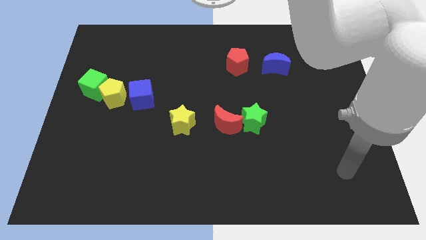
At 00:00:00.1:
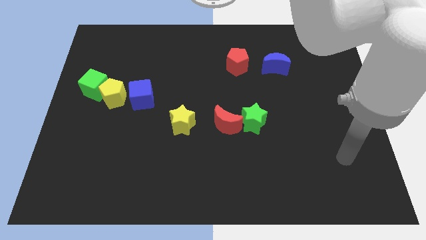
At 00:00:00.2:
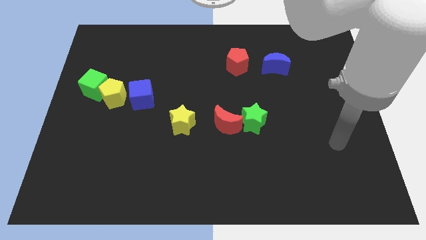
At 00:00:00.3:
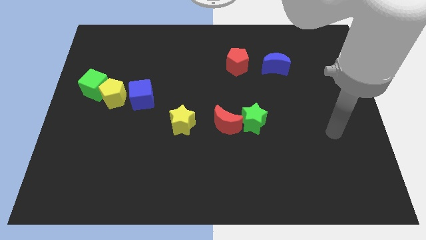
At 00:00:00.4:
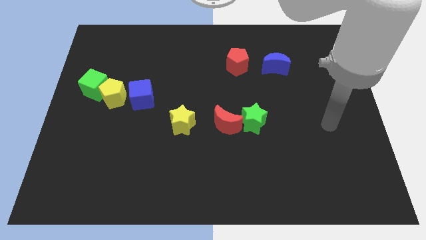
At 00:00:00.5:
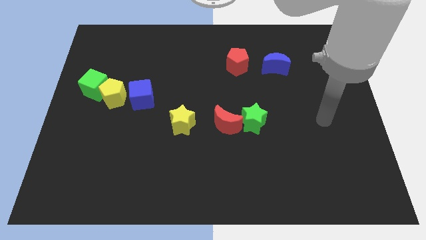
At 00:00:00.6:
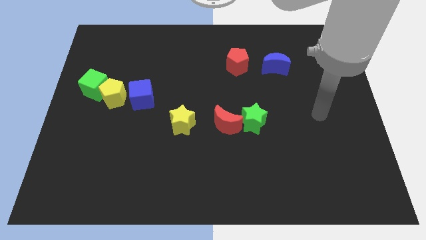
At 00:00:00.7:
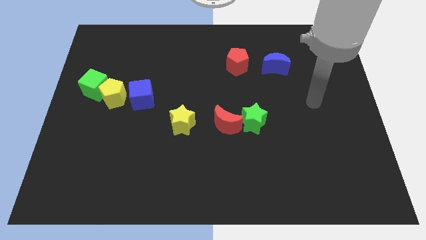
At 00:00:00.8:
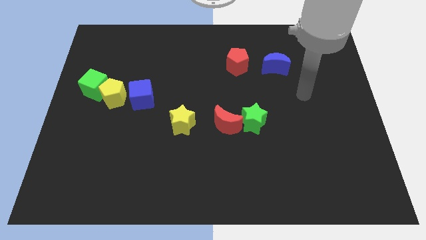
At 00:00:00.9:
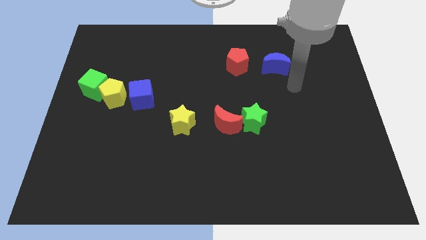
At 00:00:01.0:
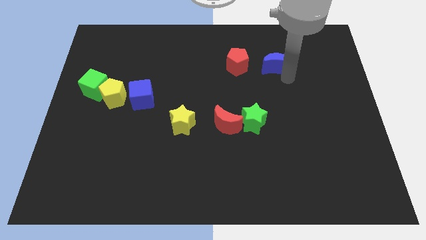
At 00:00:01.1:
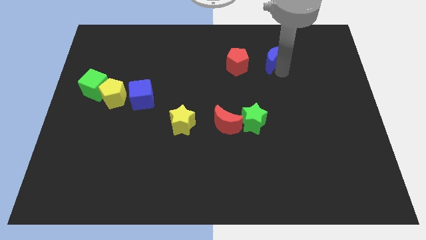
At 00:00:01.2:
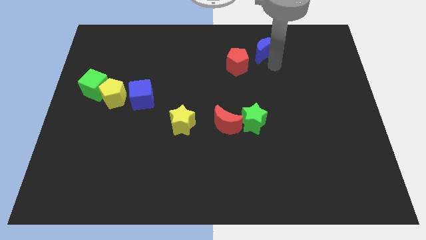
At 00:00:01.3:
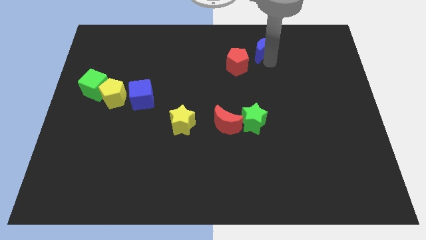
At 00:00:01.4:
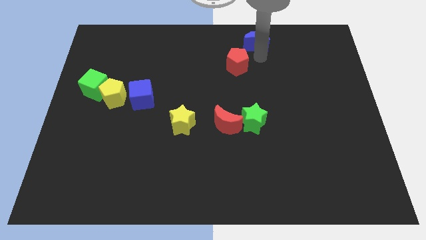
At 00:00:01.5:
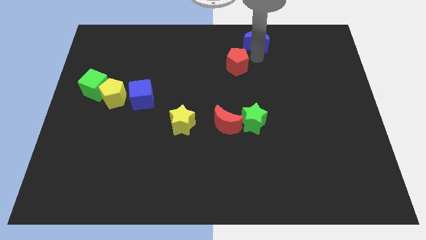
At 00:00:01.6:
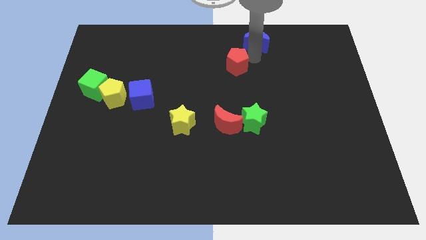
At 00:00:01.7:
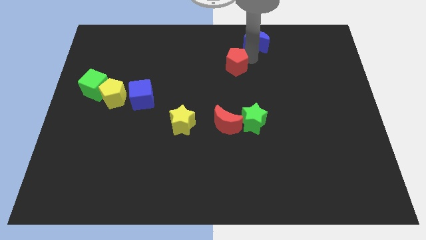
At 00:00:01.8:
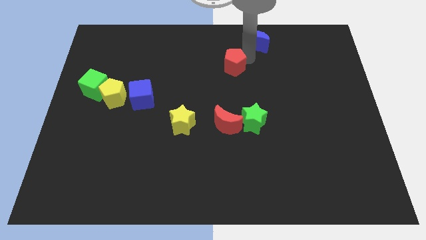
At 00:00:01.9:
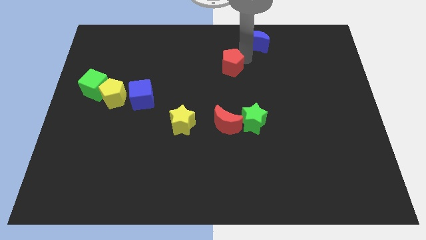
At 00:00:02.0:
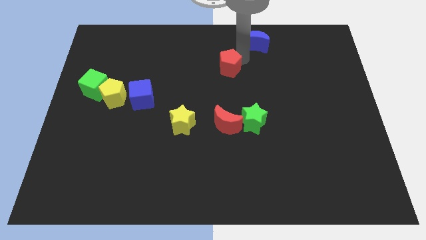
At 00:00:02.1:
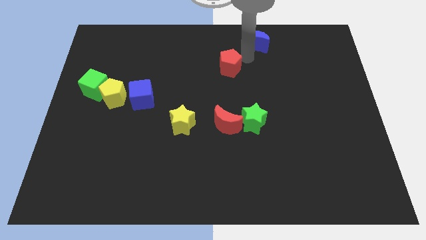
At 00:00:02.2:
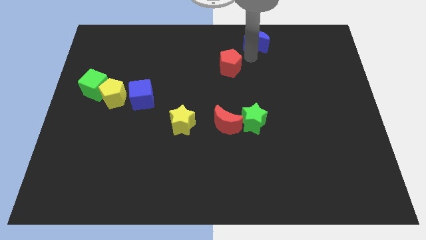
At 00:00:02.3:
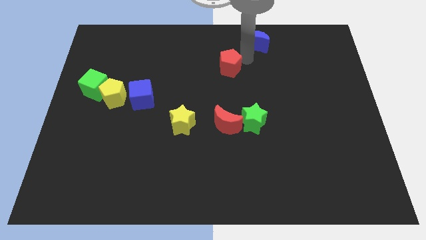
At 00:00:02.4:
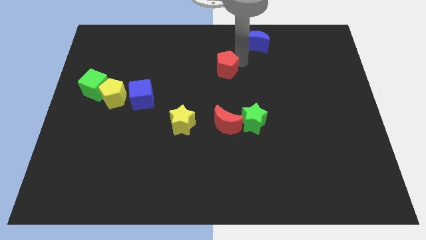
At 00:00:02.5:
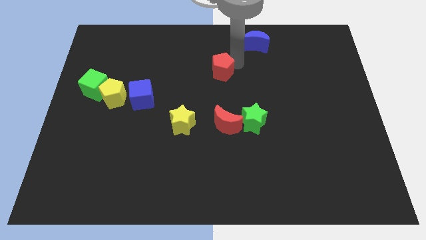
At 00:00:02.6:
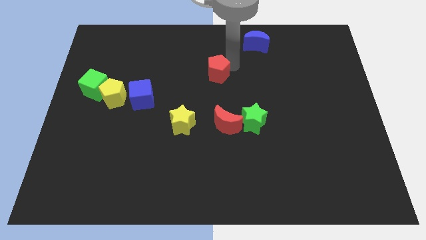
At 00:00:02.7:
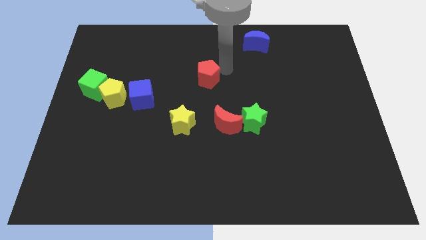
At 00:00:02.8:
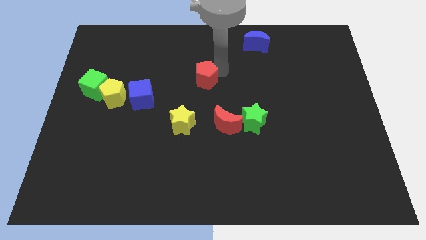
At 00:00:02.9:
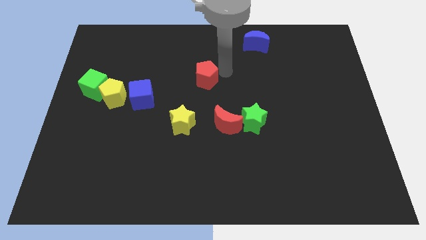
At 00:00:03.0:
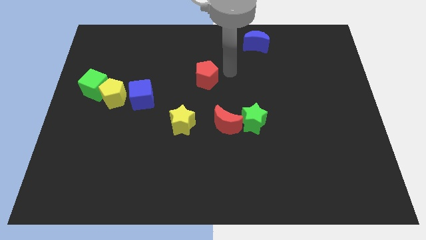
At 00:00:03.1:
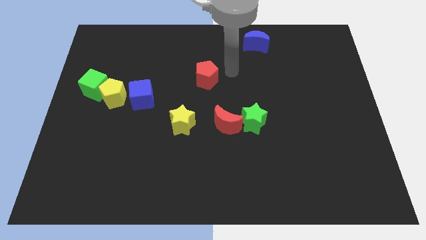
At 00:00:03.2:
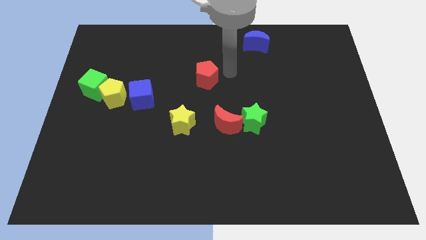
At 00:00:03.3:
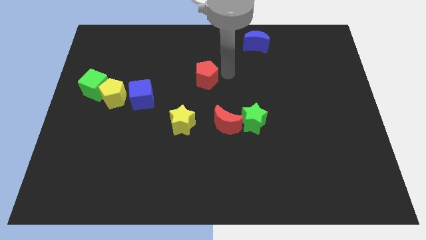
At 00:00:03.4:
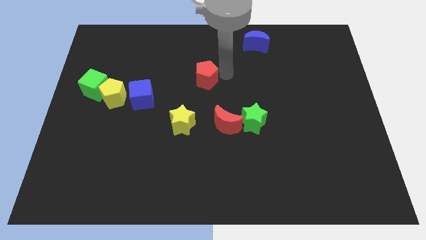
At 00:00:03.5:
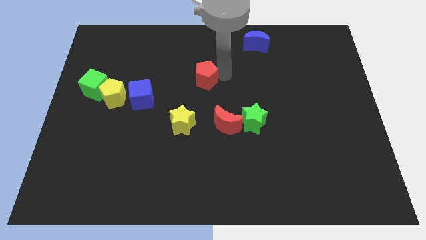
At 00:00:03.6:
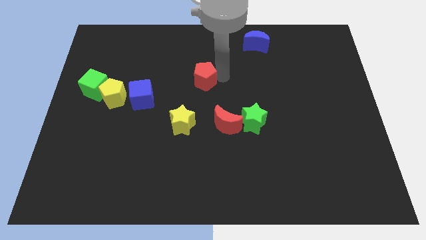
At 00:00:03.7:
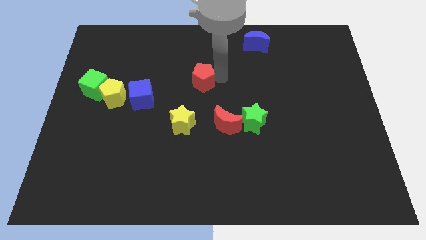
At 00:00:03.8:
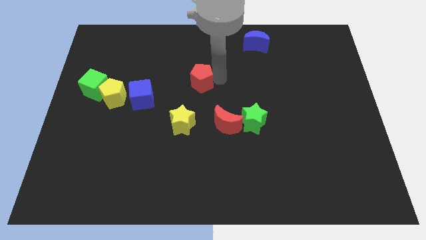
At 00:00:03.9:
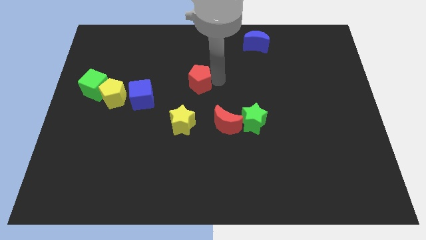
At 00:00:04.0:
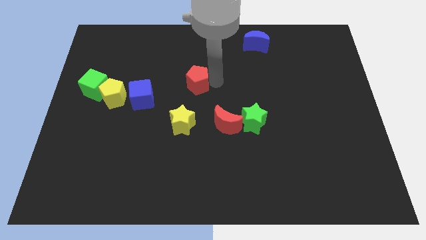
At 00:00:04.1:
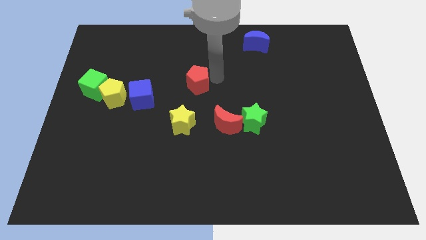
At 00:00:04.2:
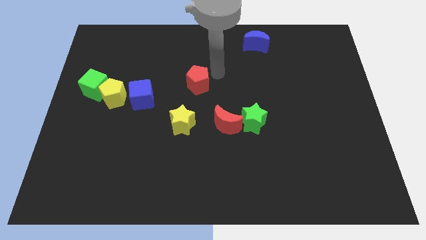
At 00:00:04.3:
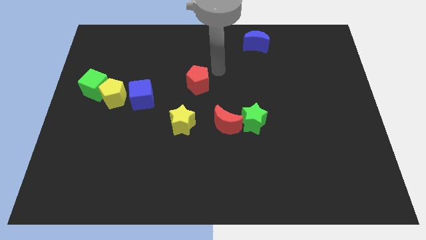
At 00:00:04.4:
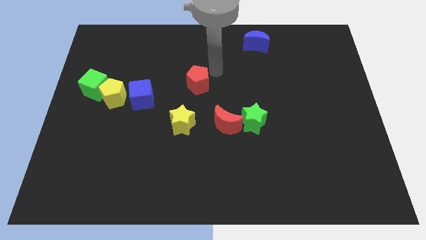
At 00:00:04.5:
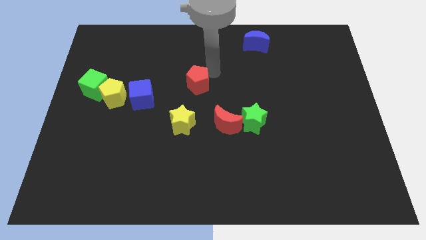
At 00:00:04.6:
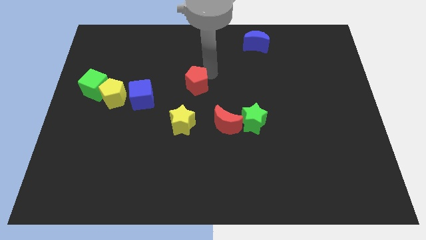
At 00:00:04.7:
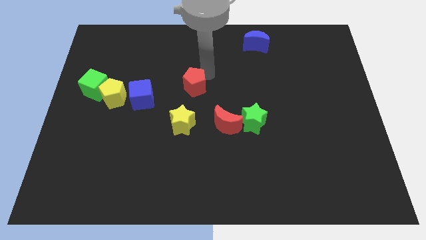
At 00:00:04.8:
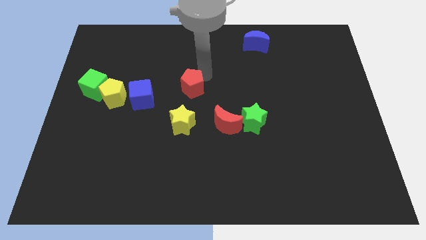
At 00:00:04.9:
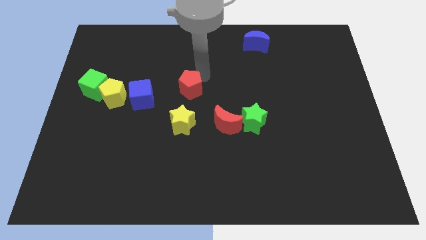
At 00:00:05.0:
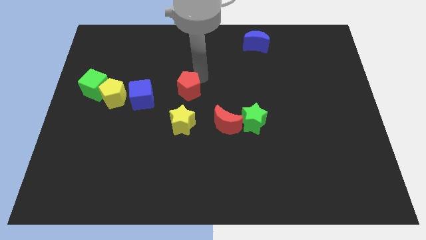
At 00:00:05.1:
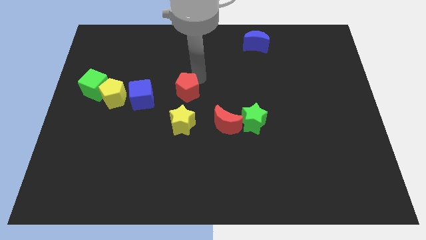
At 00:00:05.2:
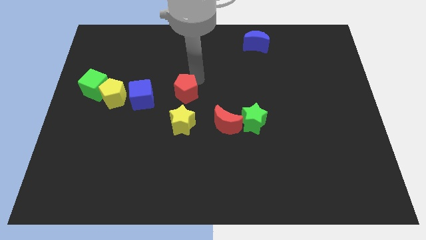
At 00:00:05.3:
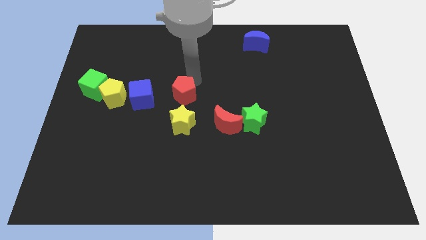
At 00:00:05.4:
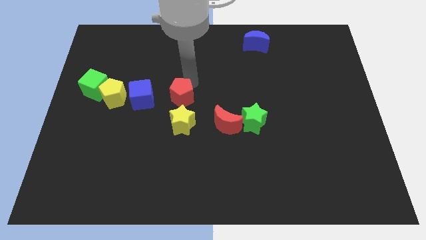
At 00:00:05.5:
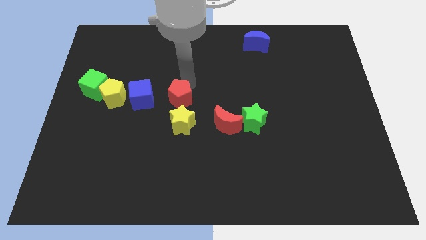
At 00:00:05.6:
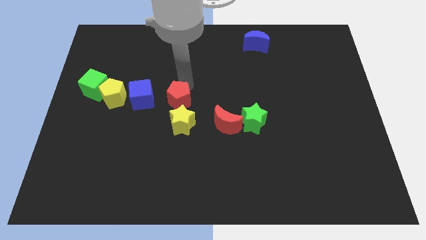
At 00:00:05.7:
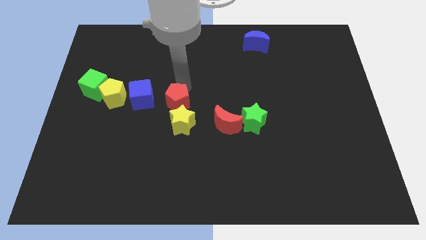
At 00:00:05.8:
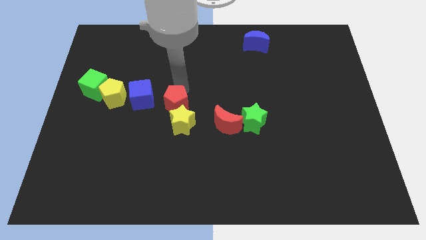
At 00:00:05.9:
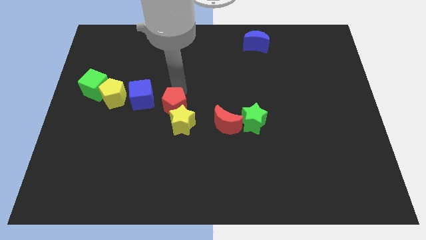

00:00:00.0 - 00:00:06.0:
slide the red pentagon diagonally downwards and to the left

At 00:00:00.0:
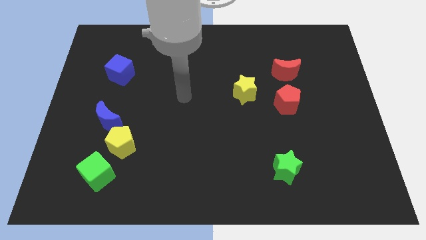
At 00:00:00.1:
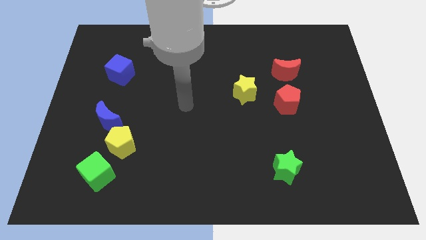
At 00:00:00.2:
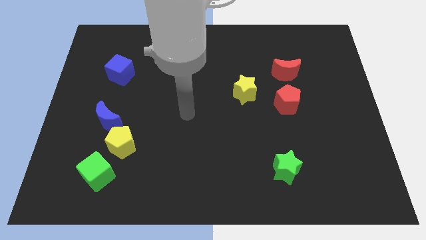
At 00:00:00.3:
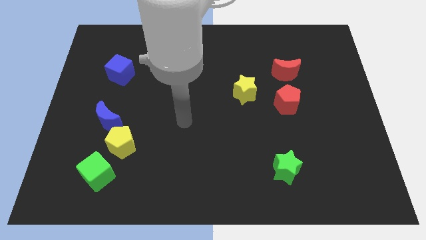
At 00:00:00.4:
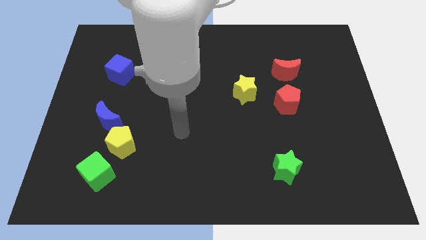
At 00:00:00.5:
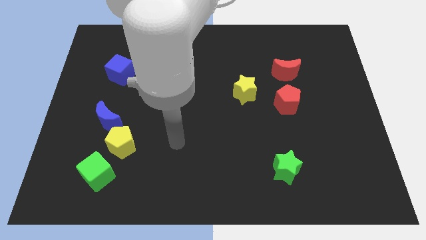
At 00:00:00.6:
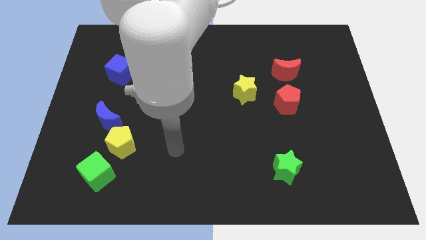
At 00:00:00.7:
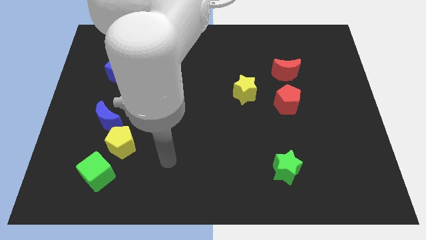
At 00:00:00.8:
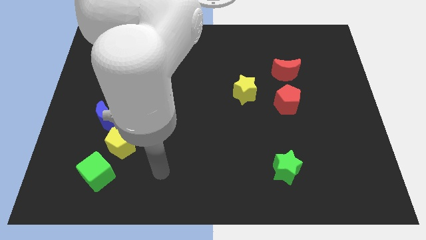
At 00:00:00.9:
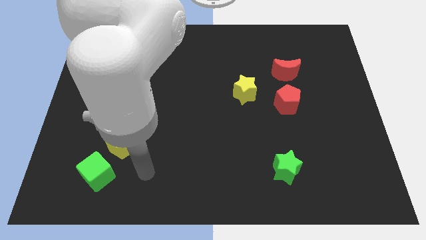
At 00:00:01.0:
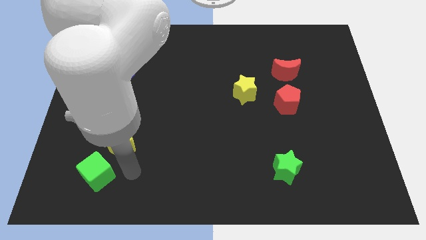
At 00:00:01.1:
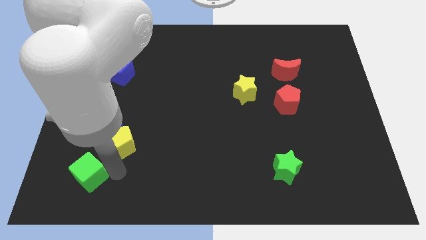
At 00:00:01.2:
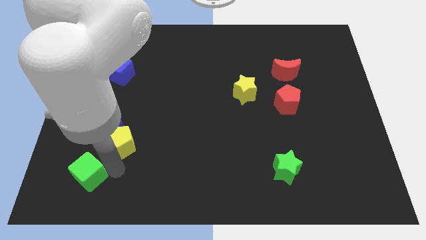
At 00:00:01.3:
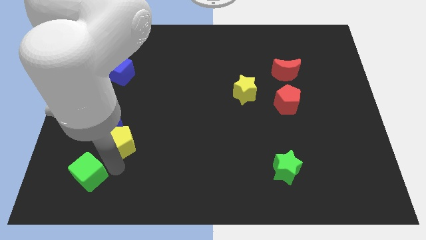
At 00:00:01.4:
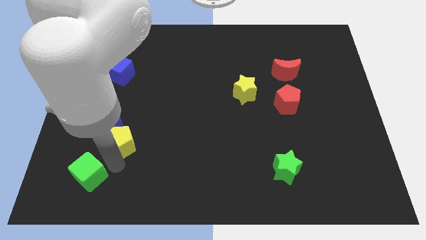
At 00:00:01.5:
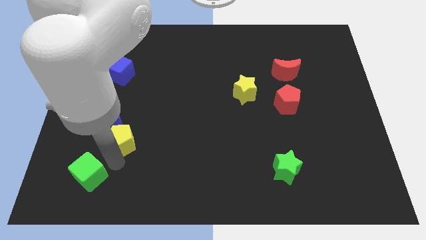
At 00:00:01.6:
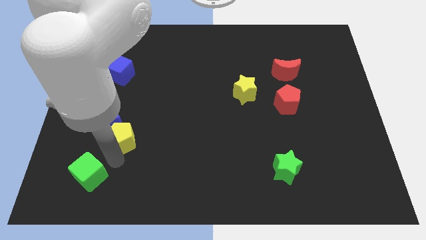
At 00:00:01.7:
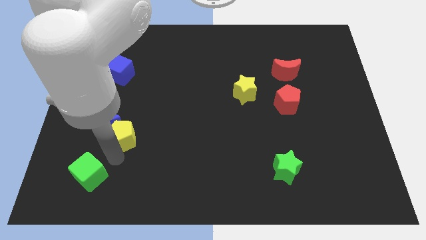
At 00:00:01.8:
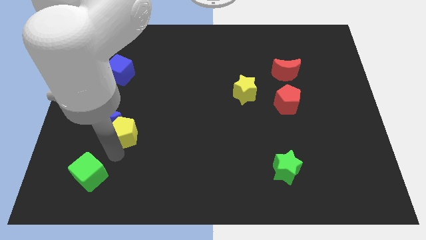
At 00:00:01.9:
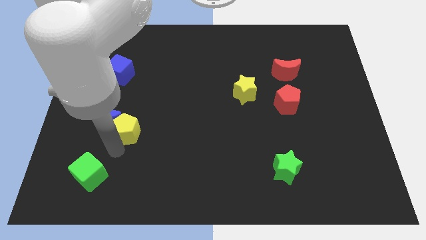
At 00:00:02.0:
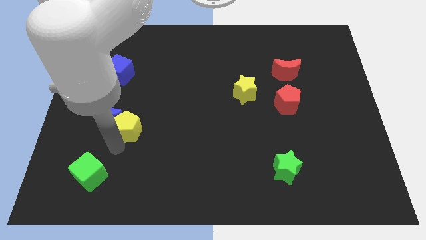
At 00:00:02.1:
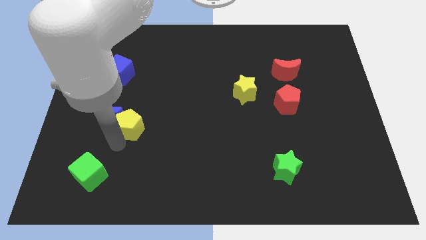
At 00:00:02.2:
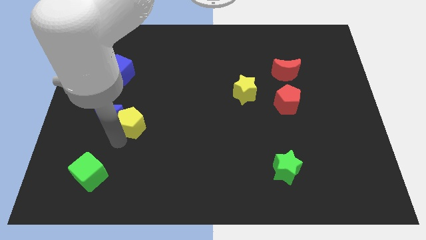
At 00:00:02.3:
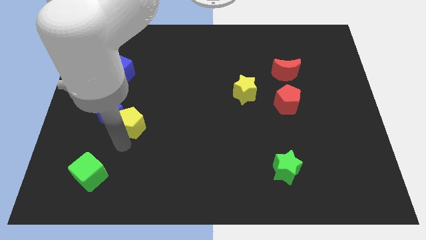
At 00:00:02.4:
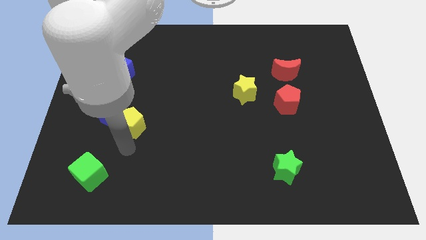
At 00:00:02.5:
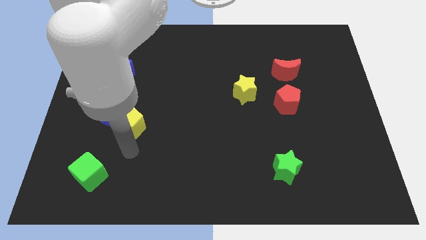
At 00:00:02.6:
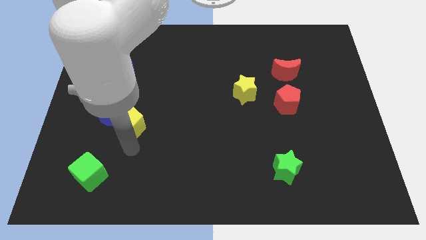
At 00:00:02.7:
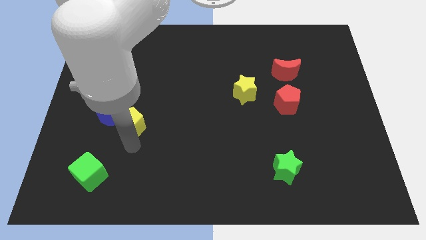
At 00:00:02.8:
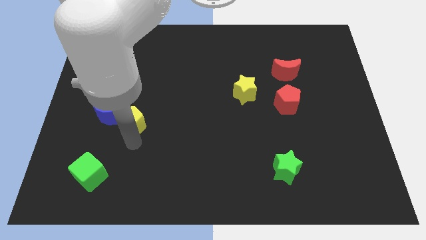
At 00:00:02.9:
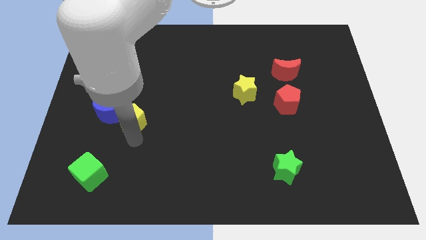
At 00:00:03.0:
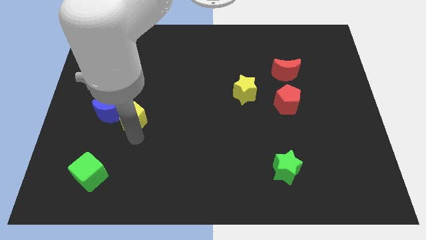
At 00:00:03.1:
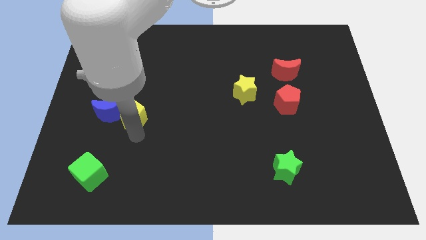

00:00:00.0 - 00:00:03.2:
move the yellow pentagon a little upwards
